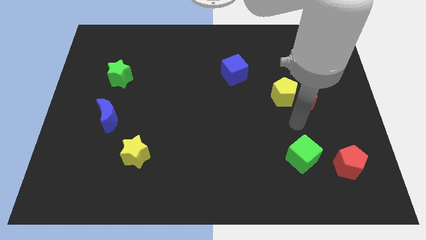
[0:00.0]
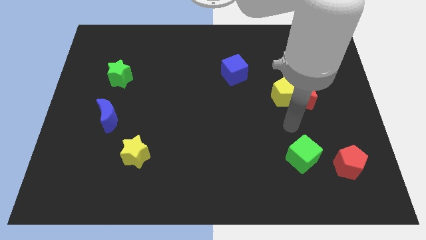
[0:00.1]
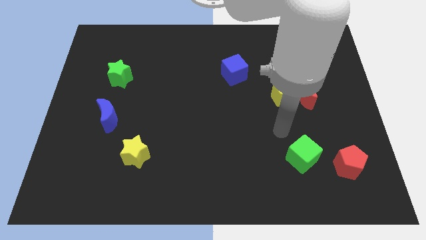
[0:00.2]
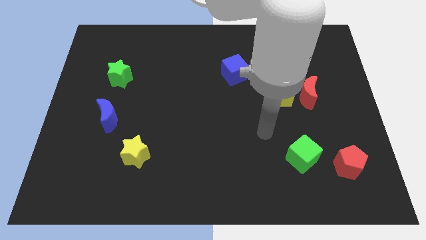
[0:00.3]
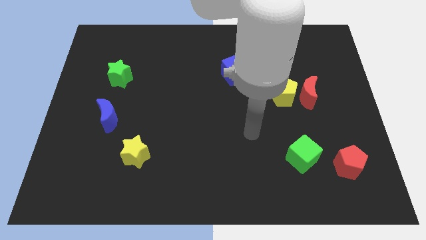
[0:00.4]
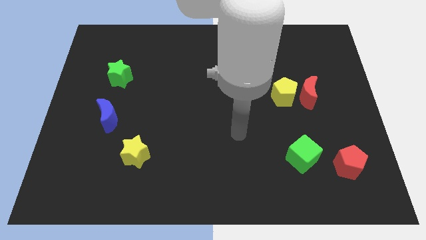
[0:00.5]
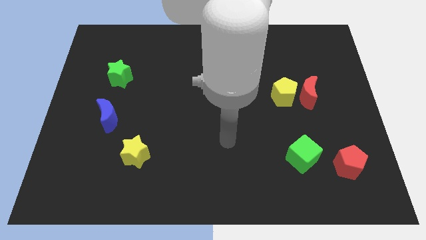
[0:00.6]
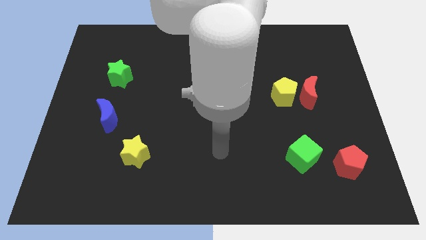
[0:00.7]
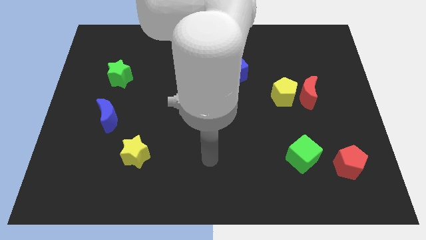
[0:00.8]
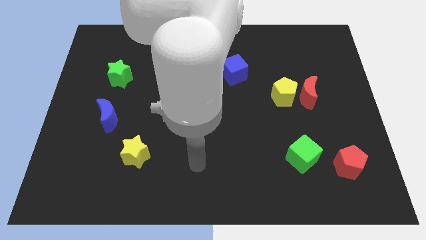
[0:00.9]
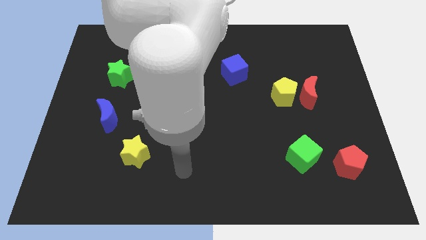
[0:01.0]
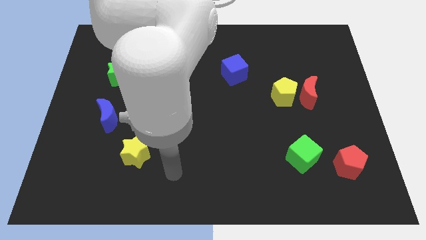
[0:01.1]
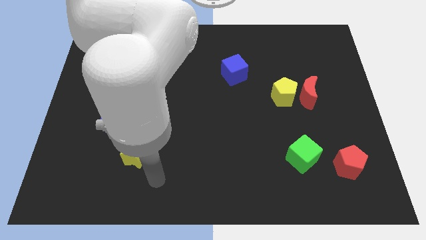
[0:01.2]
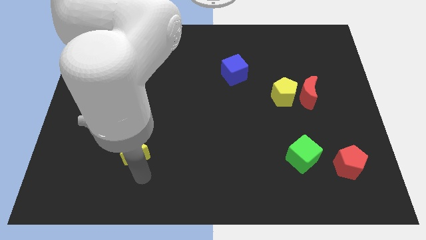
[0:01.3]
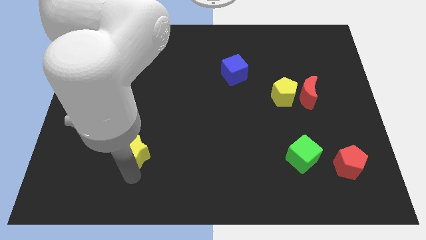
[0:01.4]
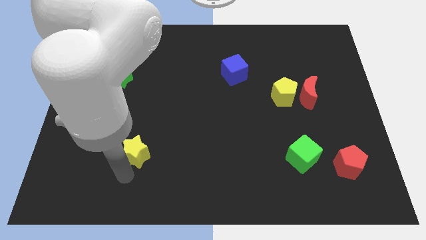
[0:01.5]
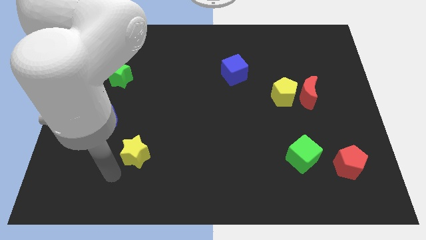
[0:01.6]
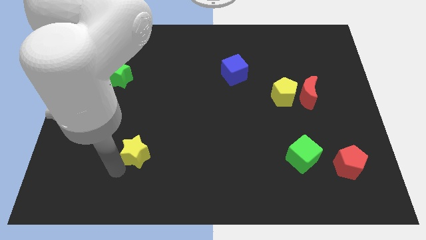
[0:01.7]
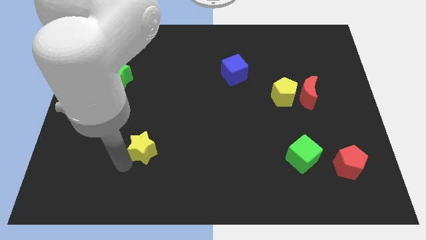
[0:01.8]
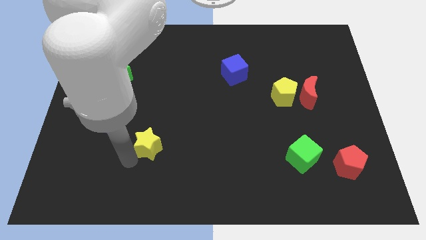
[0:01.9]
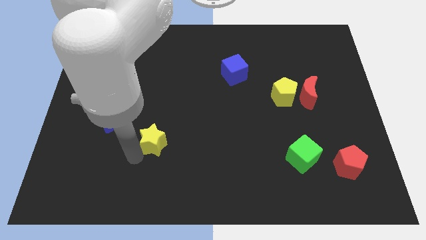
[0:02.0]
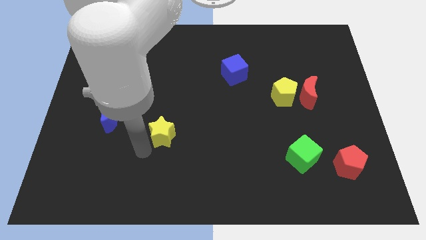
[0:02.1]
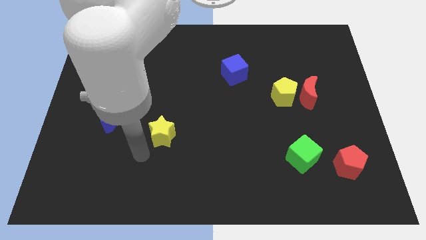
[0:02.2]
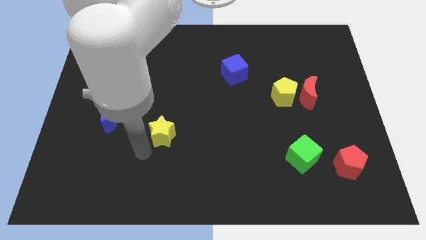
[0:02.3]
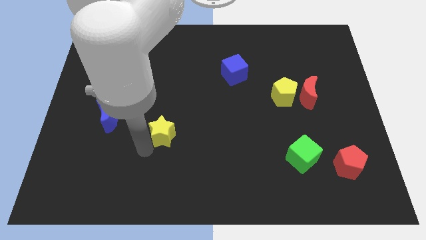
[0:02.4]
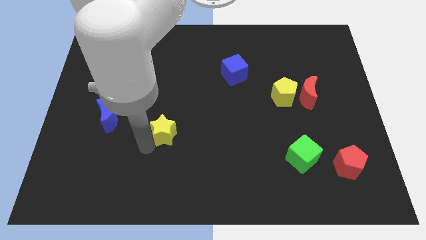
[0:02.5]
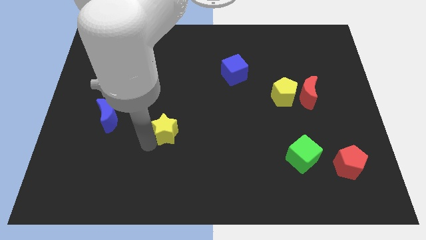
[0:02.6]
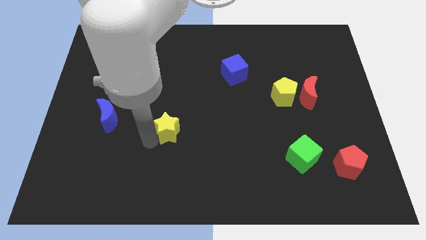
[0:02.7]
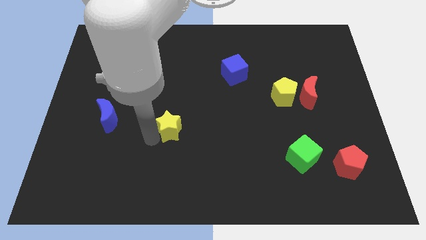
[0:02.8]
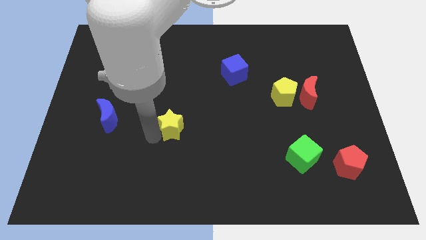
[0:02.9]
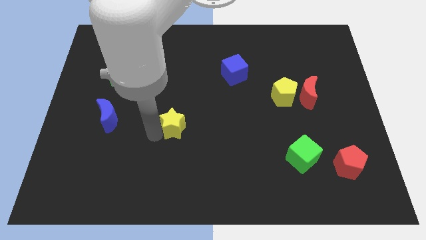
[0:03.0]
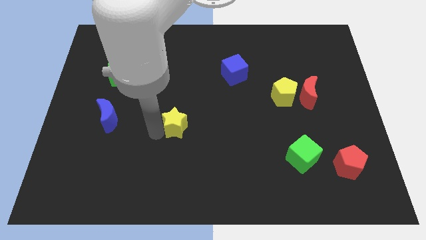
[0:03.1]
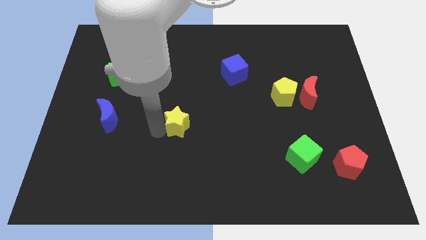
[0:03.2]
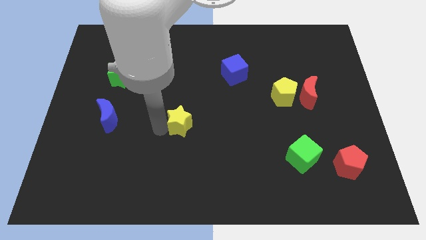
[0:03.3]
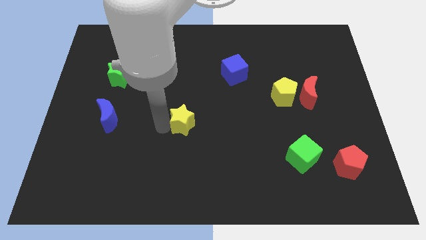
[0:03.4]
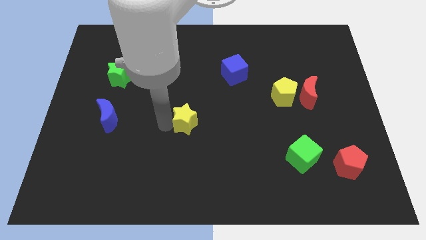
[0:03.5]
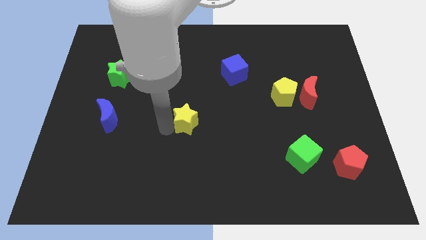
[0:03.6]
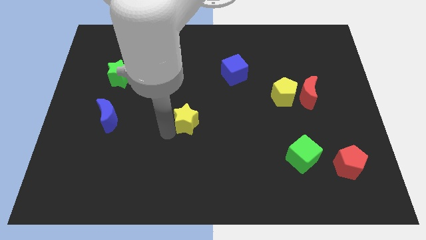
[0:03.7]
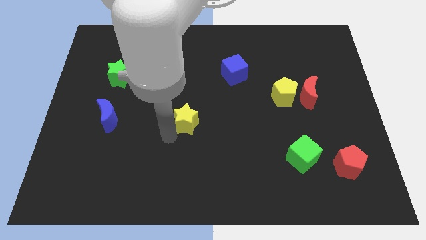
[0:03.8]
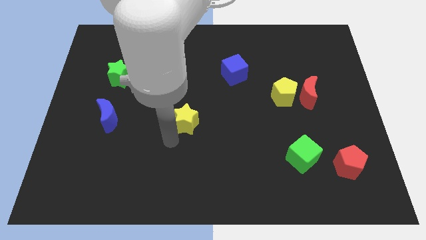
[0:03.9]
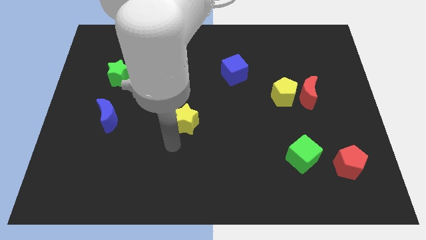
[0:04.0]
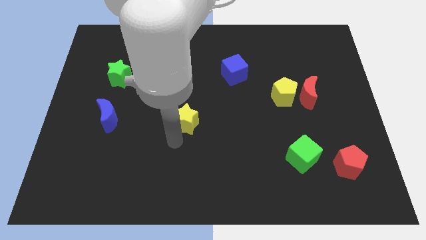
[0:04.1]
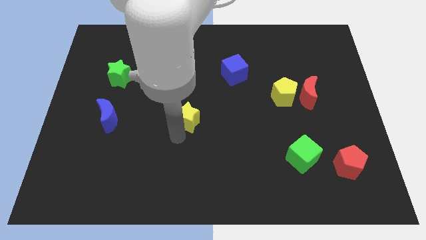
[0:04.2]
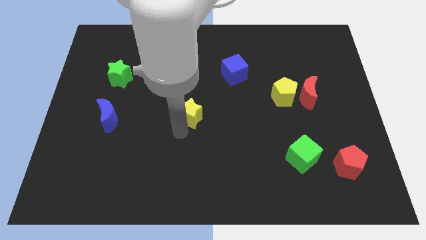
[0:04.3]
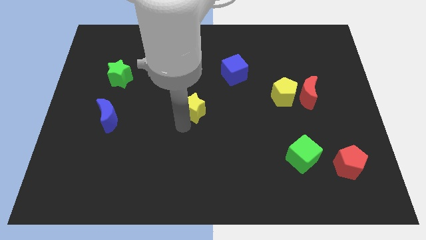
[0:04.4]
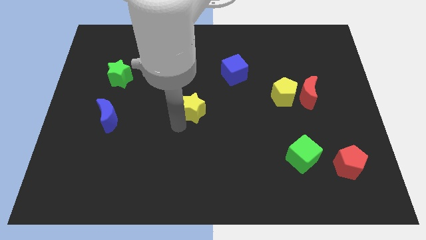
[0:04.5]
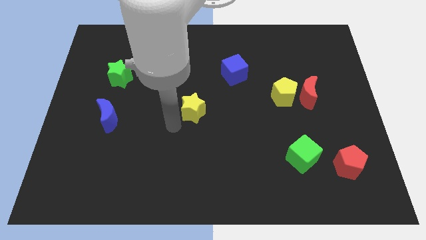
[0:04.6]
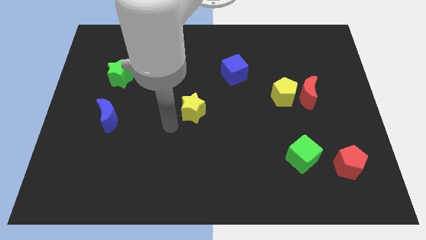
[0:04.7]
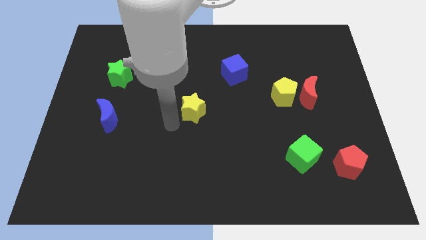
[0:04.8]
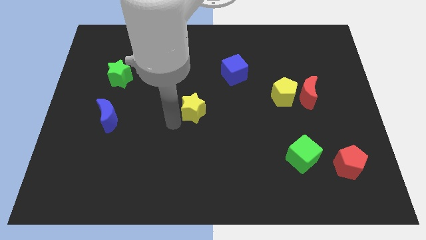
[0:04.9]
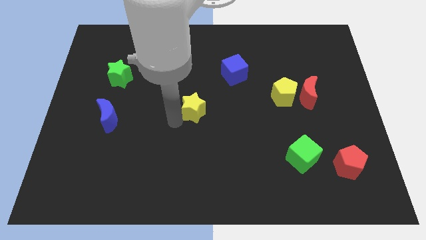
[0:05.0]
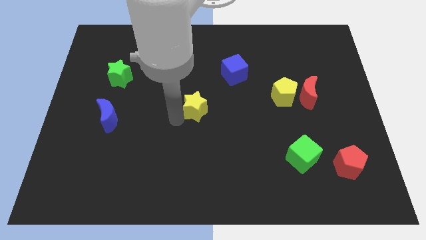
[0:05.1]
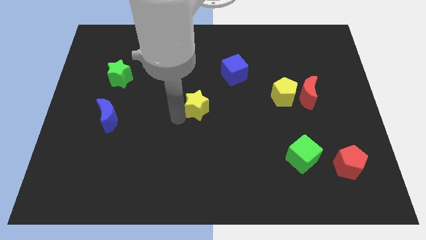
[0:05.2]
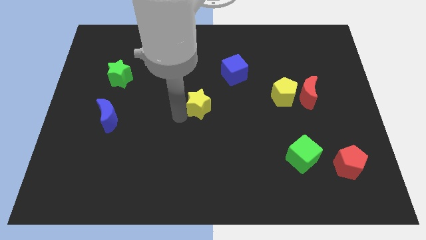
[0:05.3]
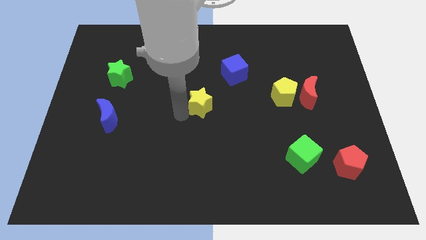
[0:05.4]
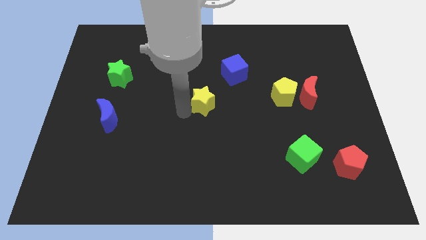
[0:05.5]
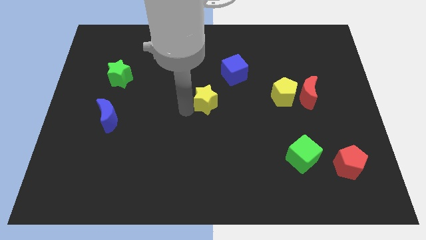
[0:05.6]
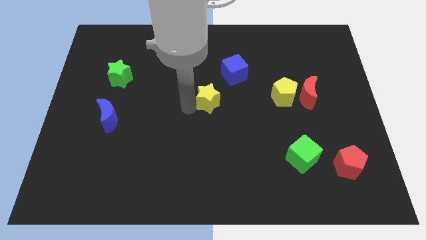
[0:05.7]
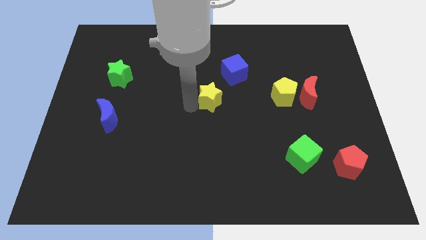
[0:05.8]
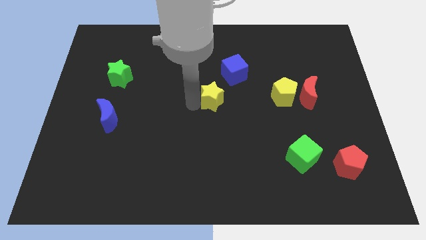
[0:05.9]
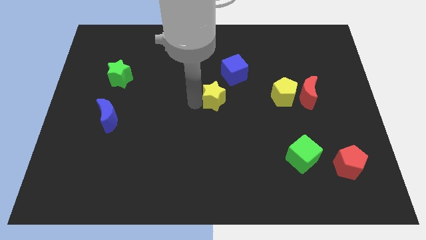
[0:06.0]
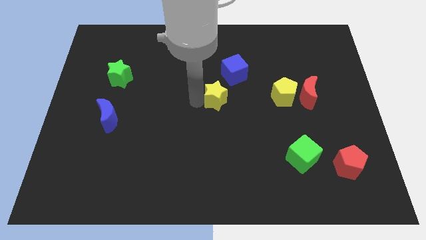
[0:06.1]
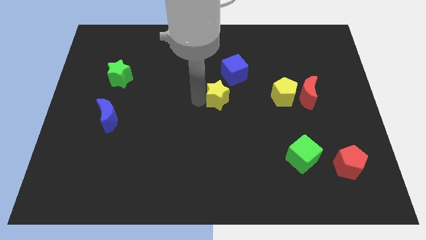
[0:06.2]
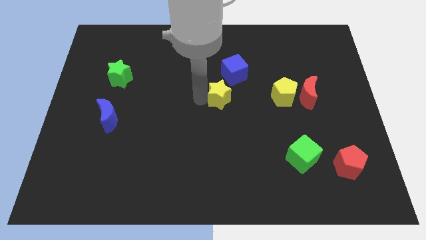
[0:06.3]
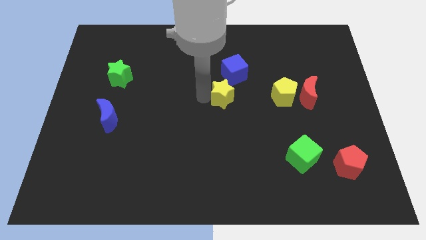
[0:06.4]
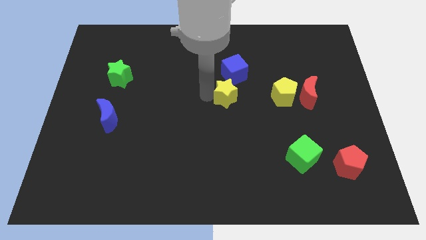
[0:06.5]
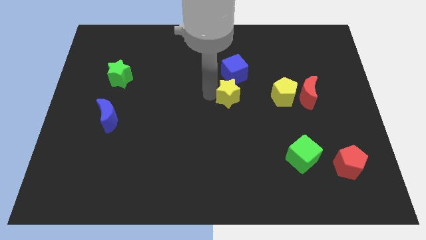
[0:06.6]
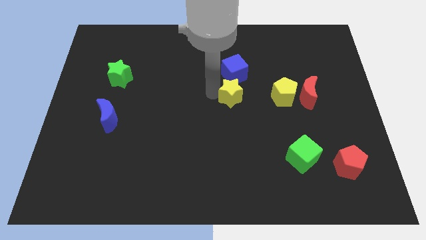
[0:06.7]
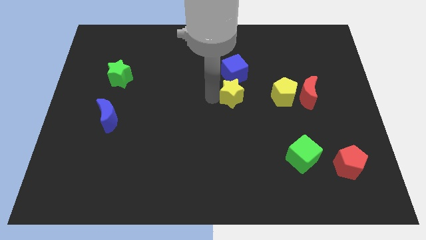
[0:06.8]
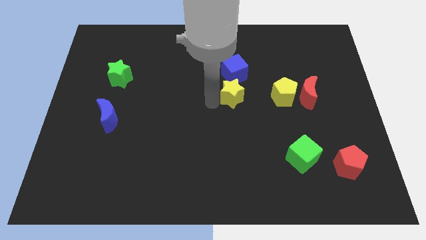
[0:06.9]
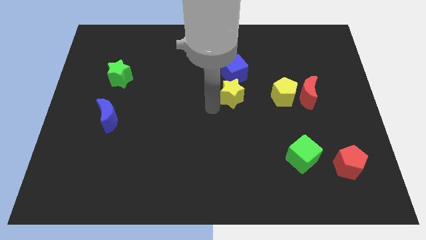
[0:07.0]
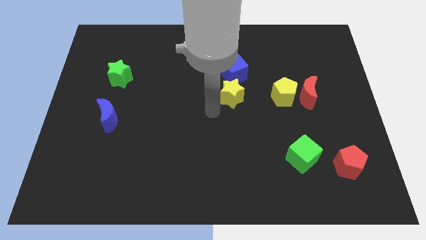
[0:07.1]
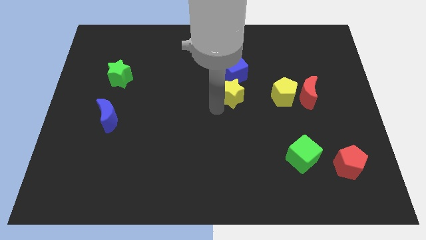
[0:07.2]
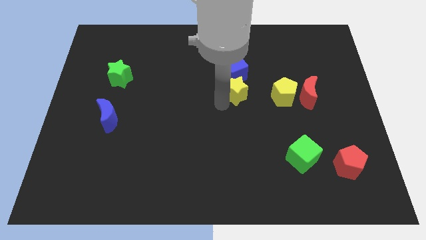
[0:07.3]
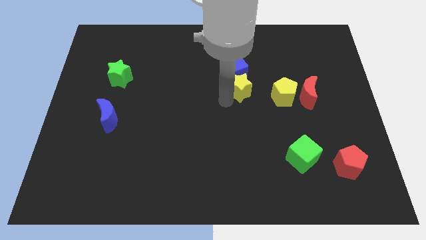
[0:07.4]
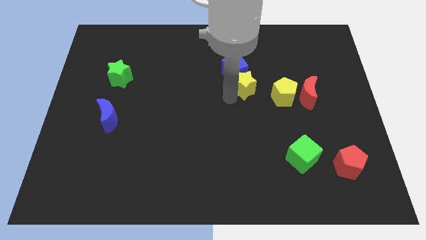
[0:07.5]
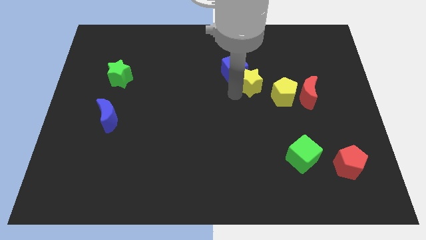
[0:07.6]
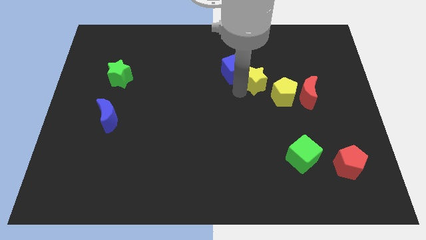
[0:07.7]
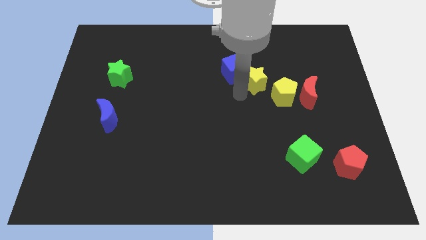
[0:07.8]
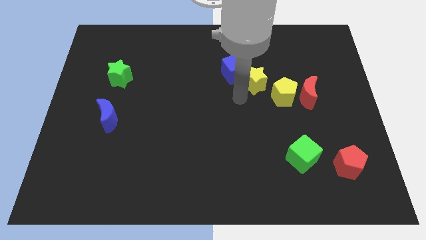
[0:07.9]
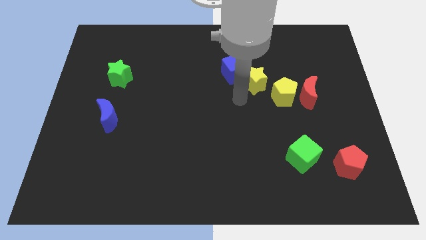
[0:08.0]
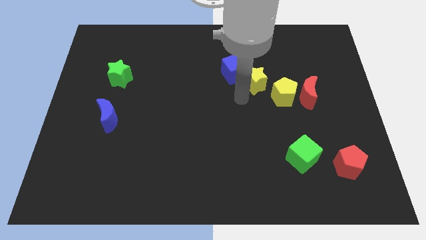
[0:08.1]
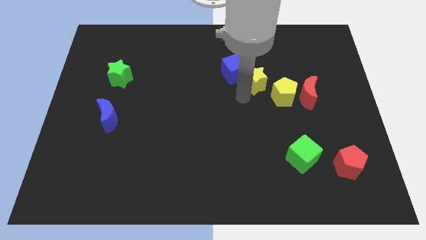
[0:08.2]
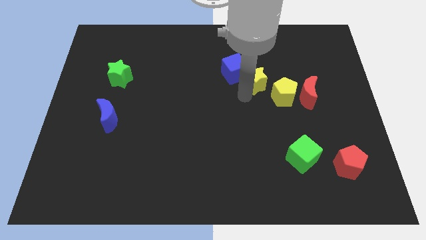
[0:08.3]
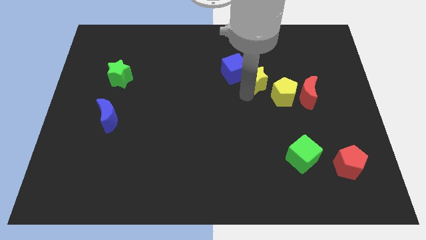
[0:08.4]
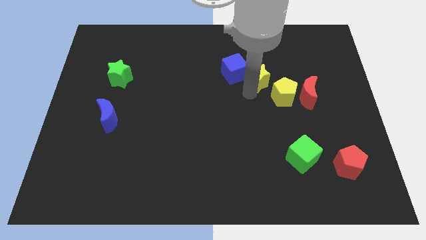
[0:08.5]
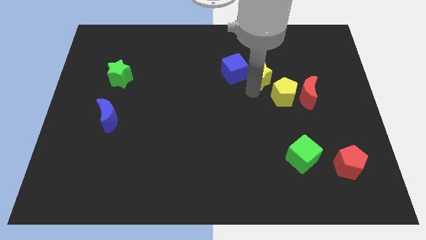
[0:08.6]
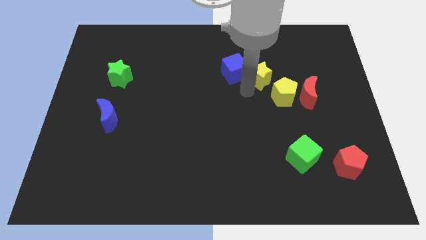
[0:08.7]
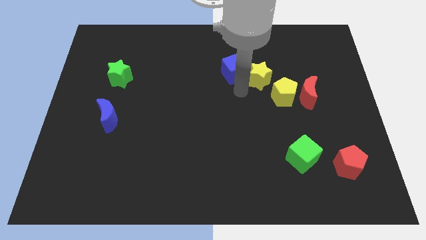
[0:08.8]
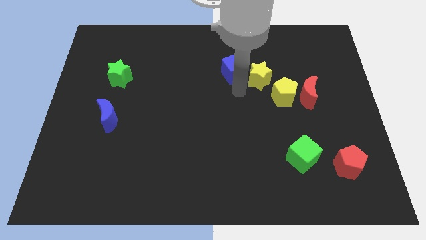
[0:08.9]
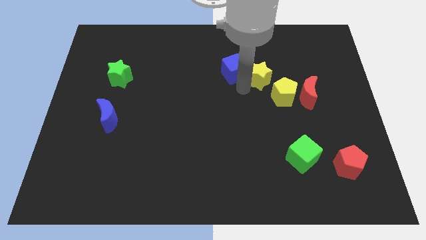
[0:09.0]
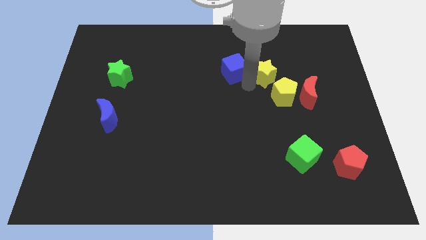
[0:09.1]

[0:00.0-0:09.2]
slide the yellow star to the top of the yellow pentagon
